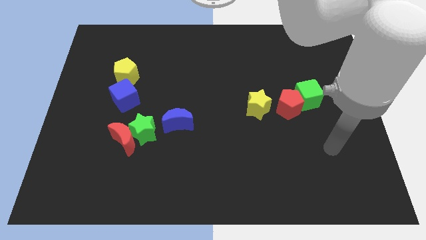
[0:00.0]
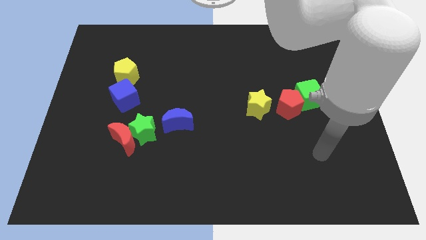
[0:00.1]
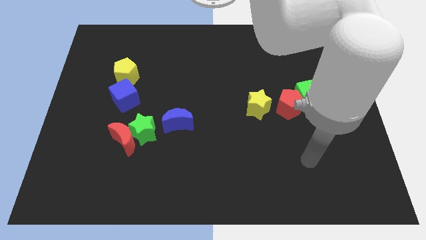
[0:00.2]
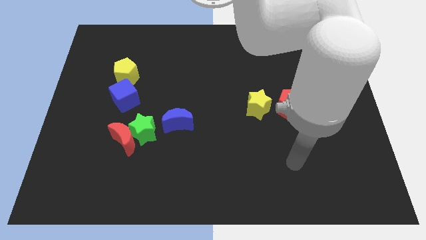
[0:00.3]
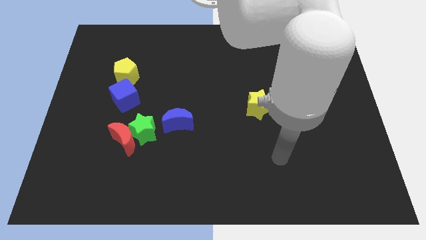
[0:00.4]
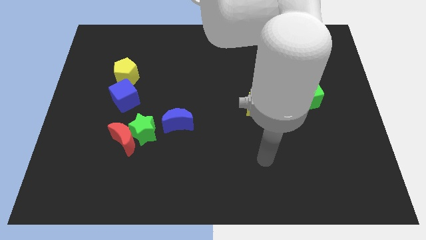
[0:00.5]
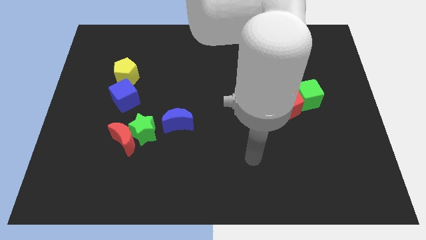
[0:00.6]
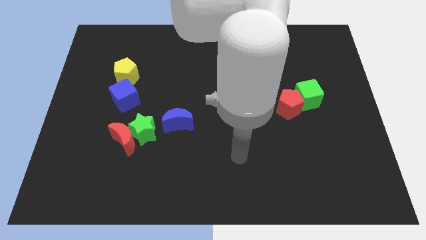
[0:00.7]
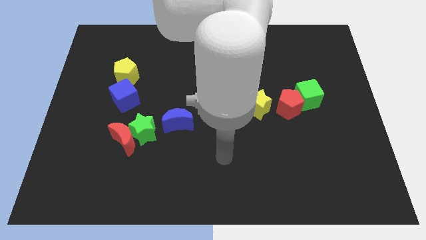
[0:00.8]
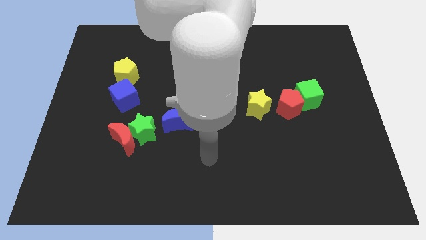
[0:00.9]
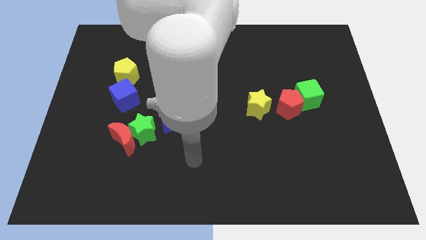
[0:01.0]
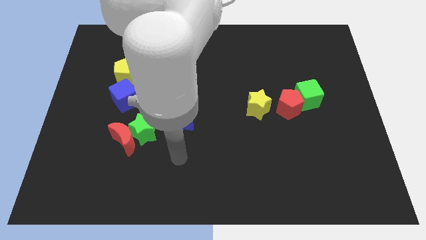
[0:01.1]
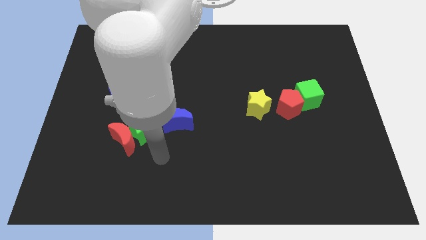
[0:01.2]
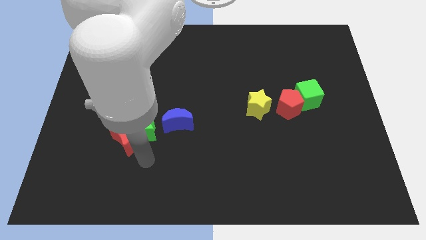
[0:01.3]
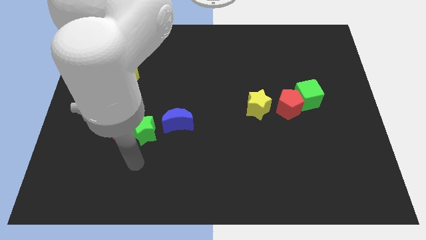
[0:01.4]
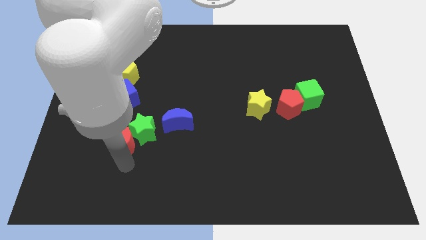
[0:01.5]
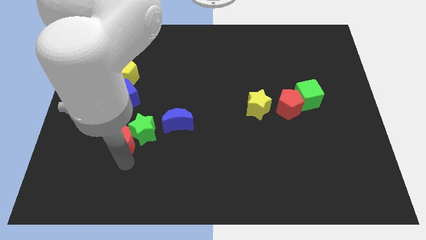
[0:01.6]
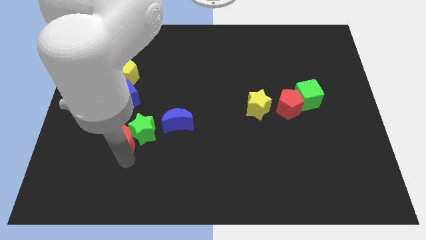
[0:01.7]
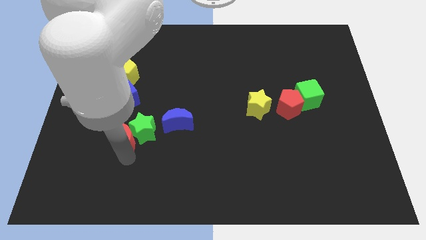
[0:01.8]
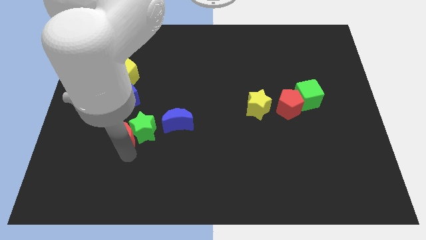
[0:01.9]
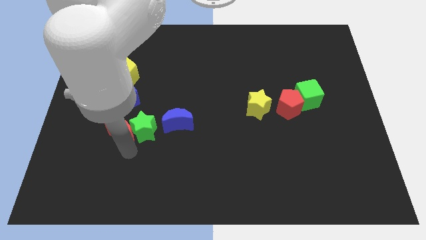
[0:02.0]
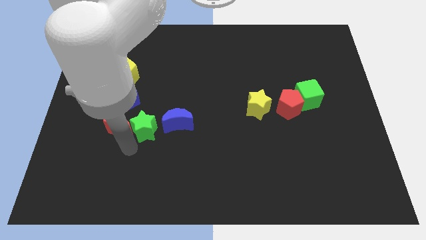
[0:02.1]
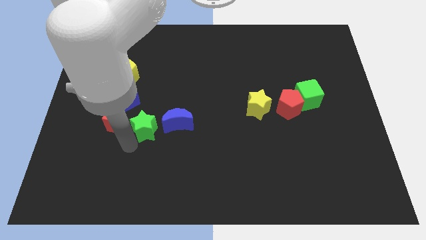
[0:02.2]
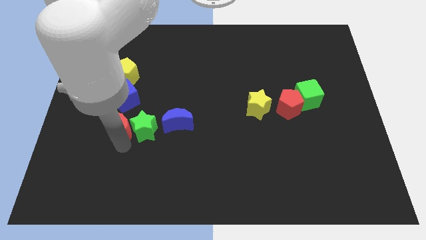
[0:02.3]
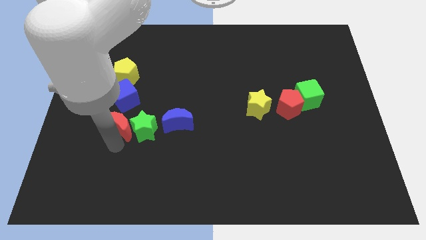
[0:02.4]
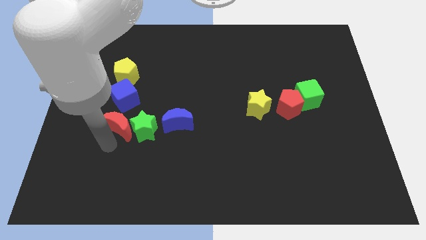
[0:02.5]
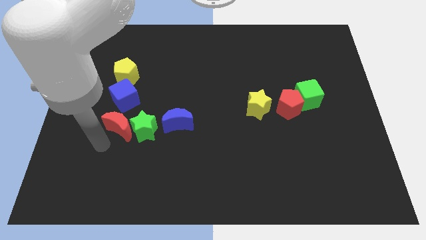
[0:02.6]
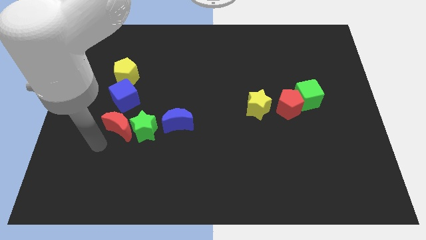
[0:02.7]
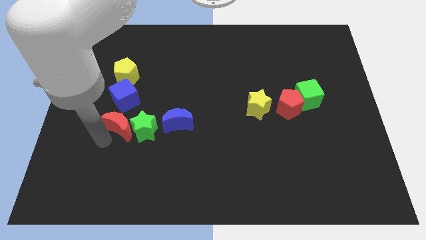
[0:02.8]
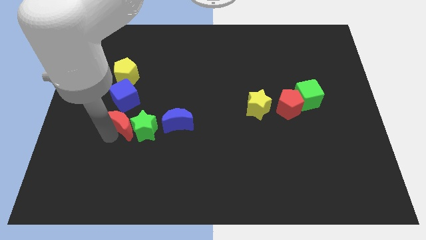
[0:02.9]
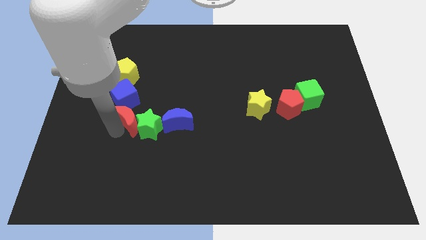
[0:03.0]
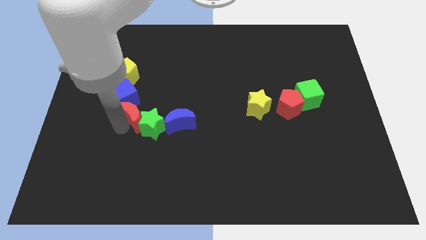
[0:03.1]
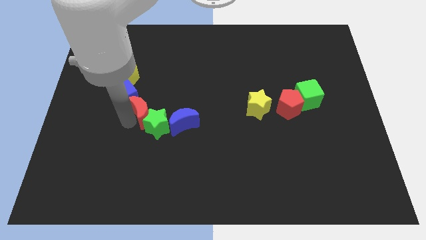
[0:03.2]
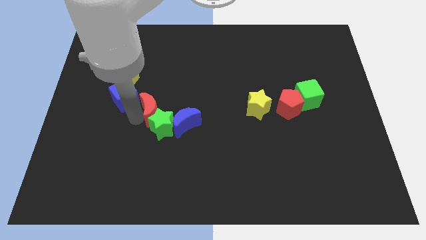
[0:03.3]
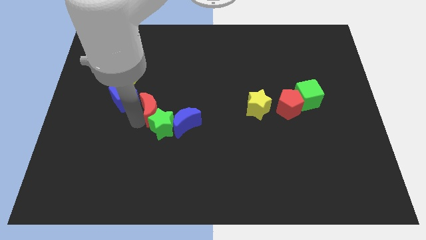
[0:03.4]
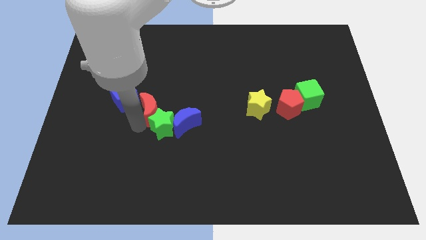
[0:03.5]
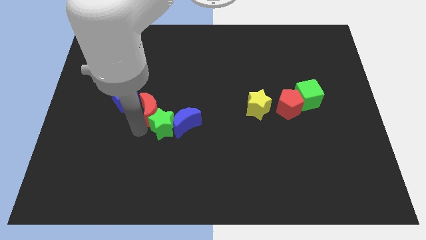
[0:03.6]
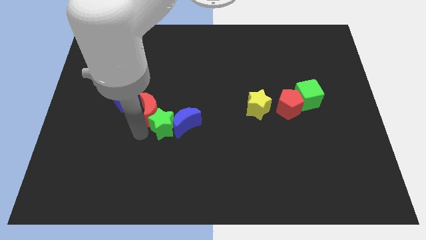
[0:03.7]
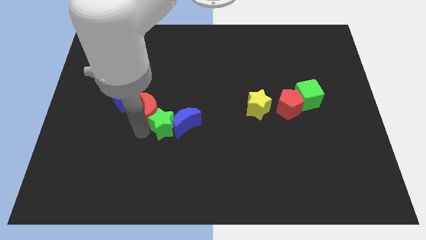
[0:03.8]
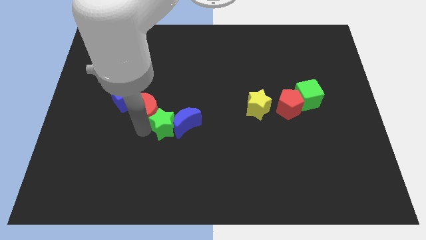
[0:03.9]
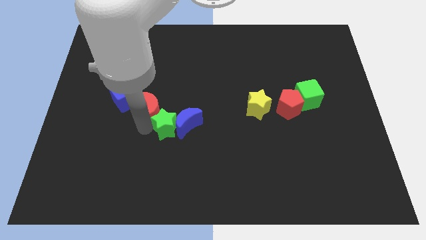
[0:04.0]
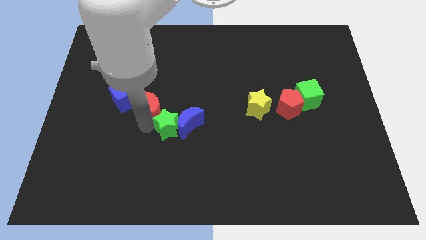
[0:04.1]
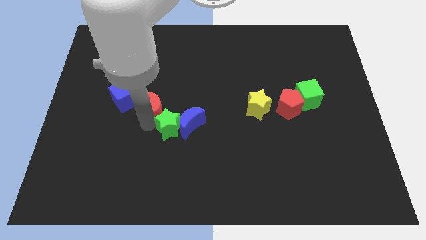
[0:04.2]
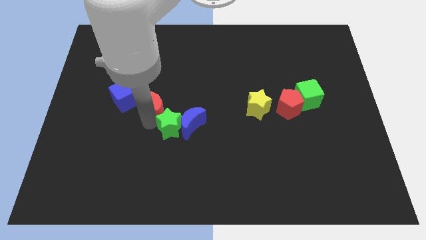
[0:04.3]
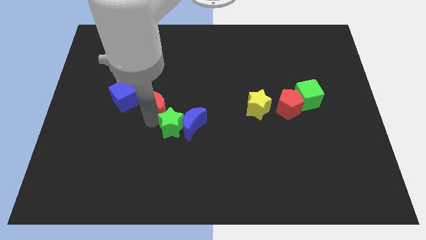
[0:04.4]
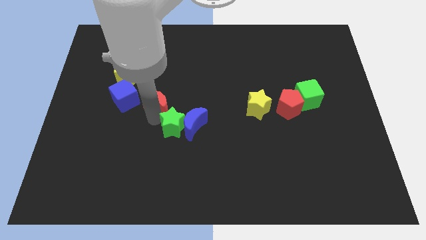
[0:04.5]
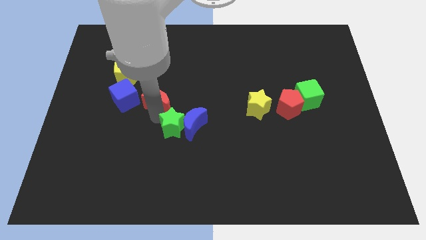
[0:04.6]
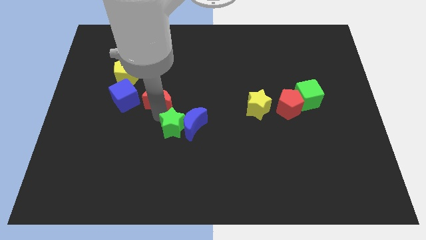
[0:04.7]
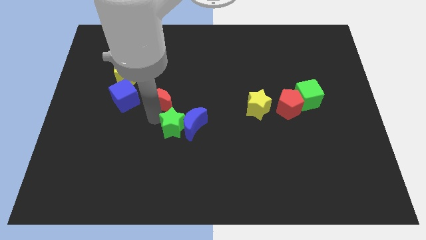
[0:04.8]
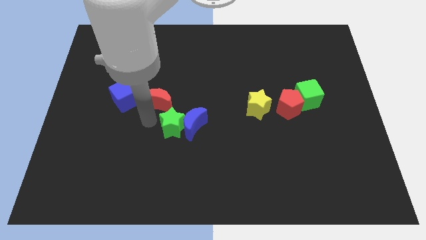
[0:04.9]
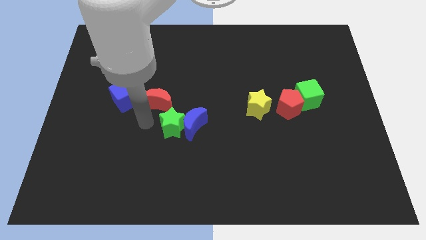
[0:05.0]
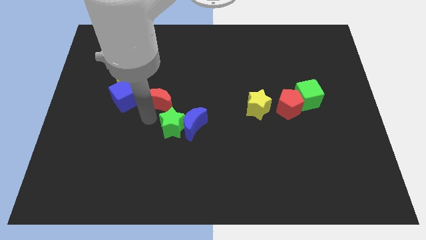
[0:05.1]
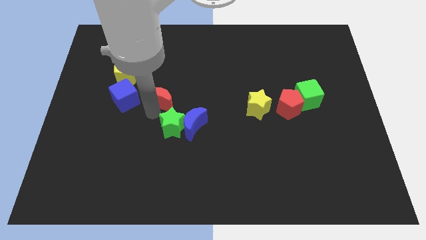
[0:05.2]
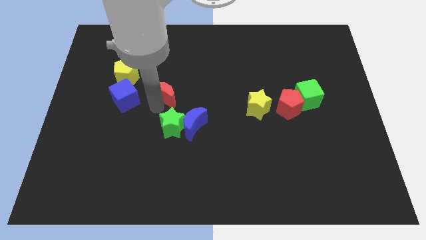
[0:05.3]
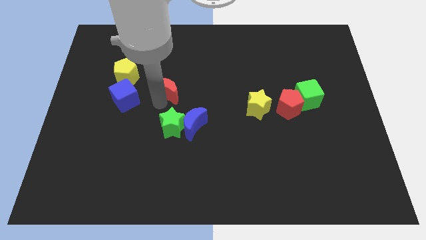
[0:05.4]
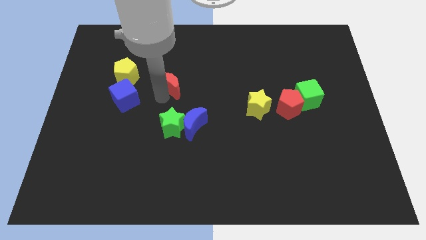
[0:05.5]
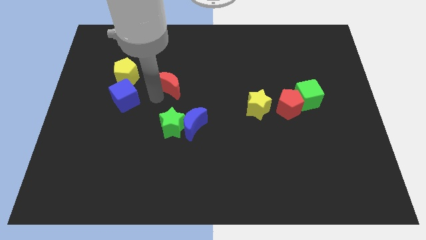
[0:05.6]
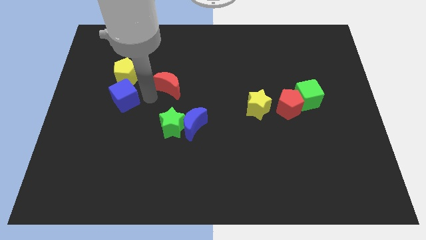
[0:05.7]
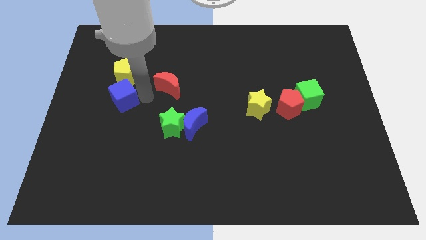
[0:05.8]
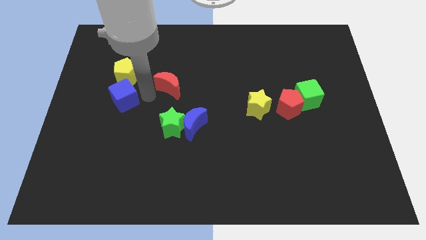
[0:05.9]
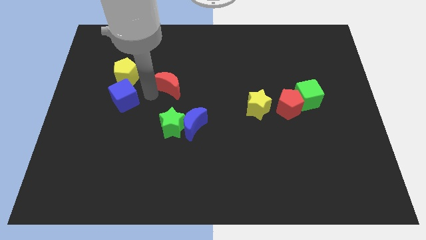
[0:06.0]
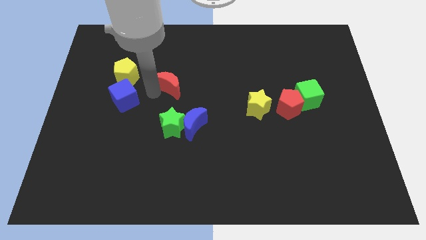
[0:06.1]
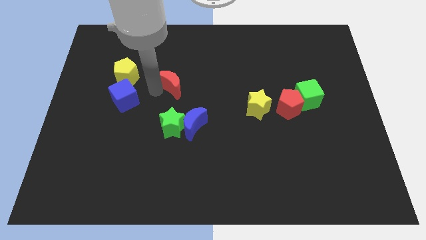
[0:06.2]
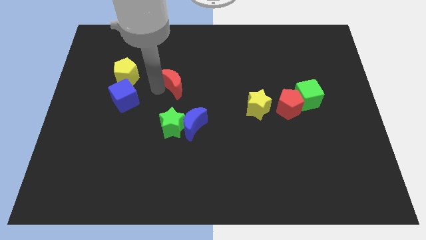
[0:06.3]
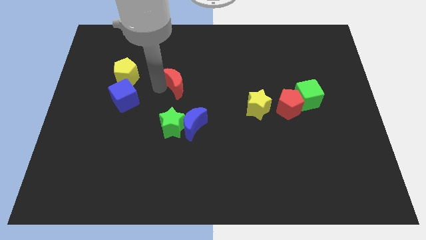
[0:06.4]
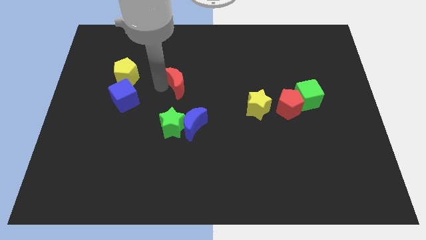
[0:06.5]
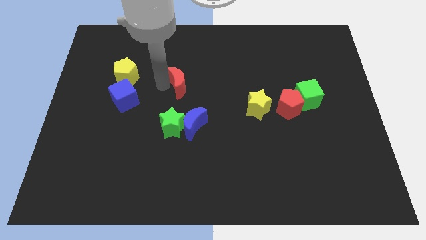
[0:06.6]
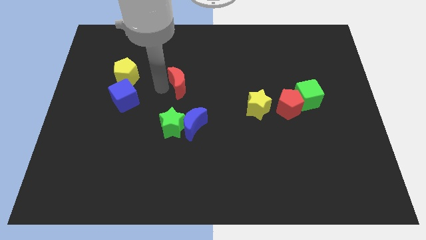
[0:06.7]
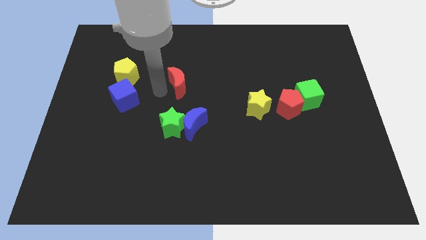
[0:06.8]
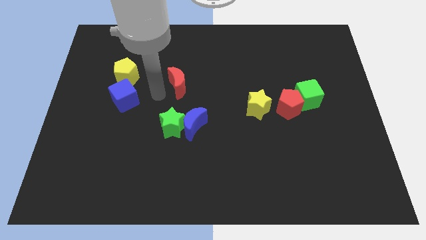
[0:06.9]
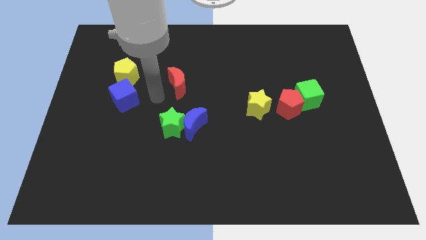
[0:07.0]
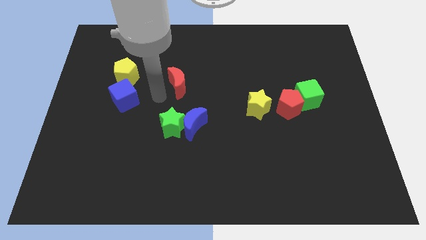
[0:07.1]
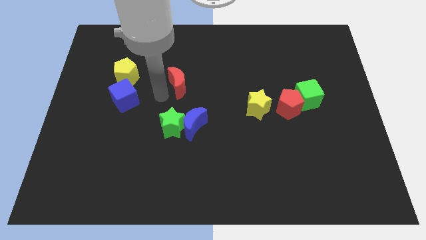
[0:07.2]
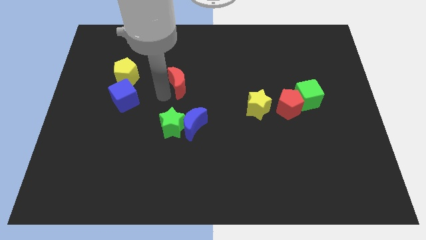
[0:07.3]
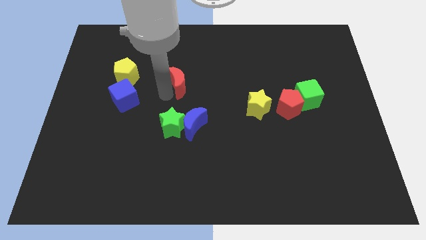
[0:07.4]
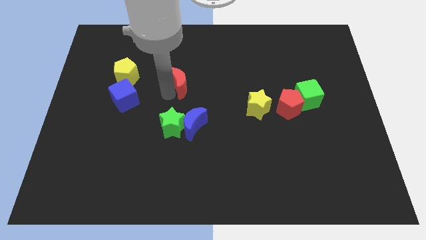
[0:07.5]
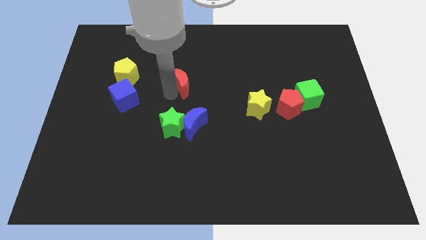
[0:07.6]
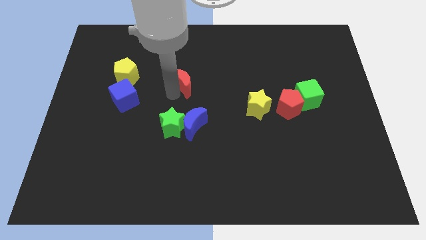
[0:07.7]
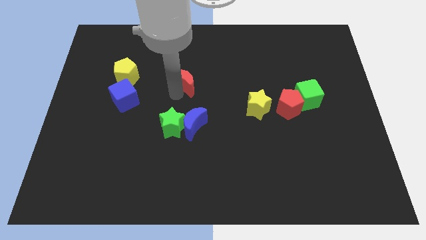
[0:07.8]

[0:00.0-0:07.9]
move the red moon up and then to the right
